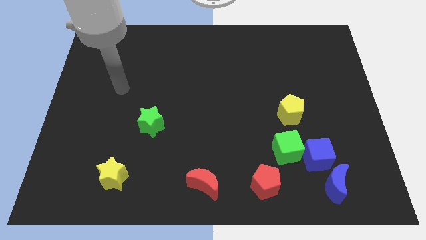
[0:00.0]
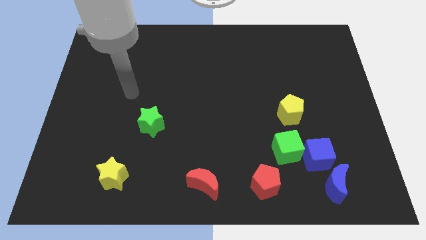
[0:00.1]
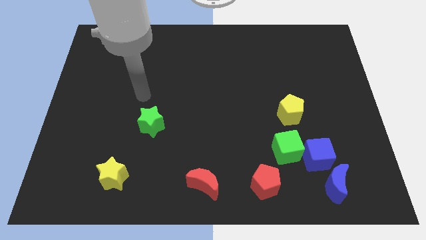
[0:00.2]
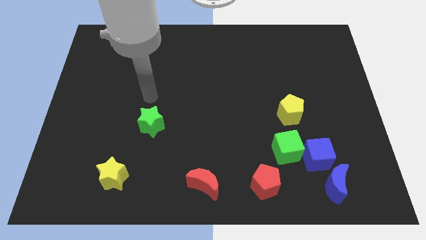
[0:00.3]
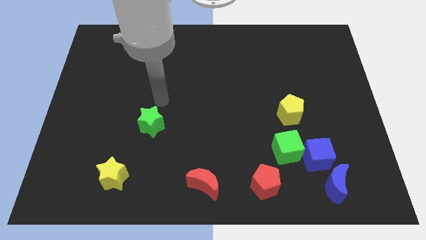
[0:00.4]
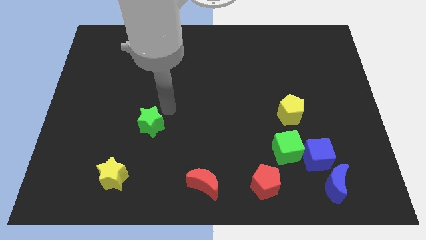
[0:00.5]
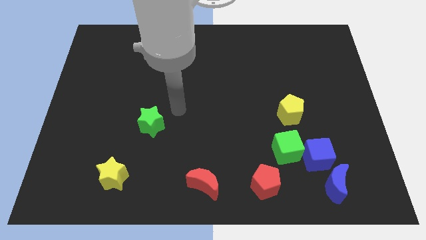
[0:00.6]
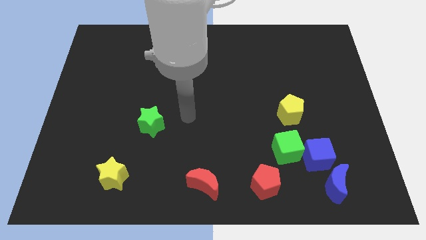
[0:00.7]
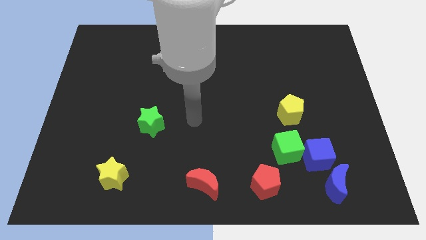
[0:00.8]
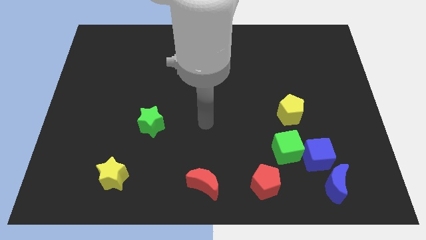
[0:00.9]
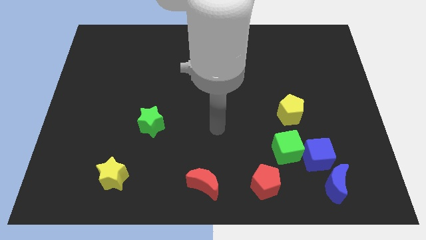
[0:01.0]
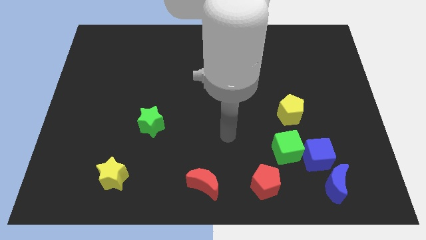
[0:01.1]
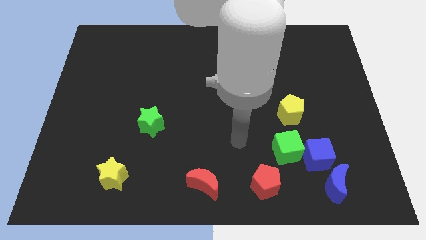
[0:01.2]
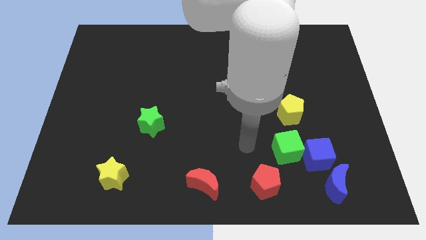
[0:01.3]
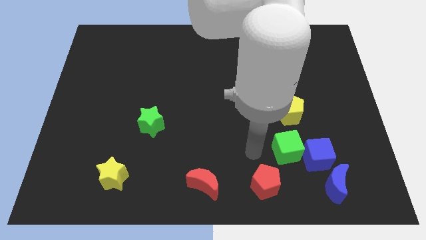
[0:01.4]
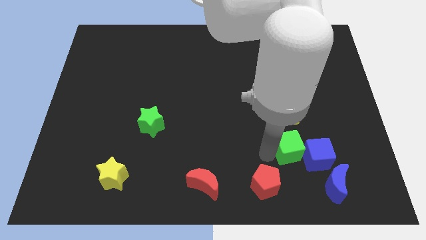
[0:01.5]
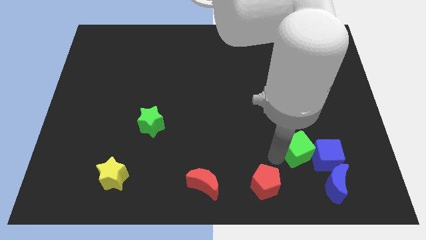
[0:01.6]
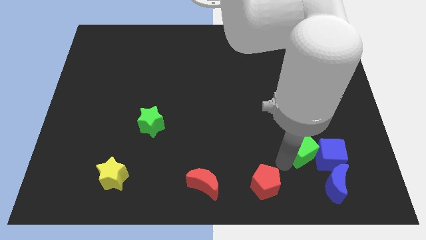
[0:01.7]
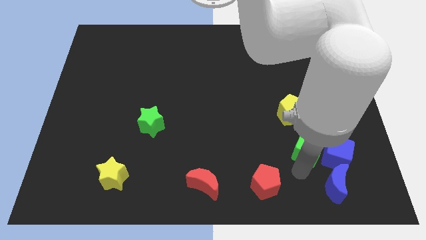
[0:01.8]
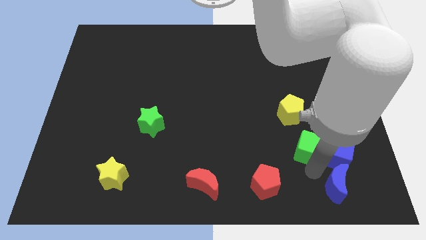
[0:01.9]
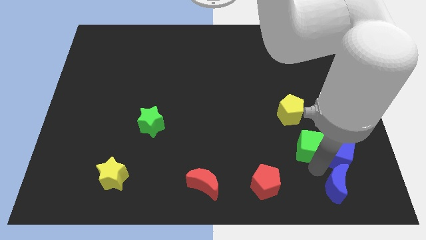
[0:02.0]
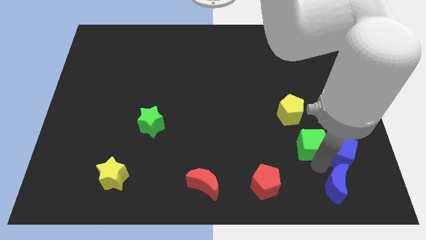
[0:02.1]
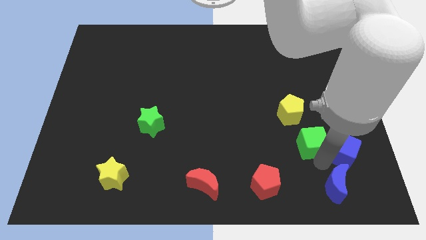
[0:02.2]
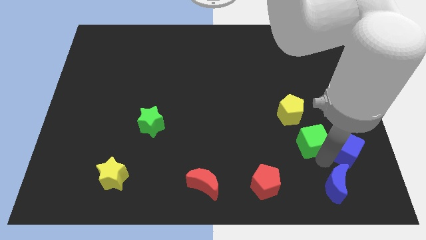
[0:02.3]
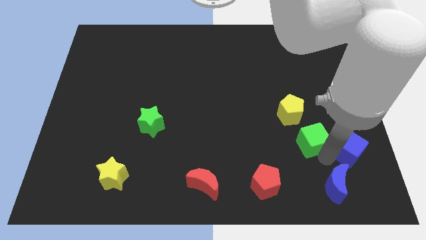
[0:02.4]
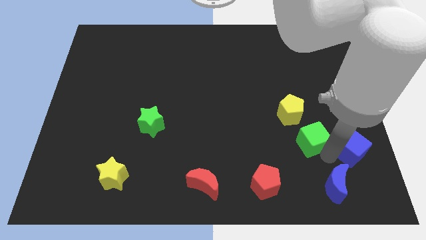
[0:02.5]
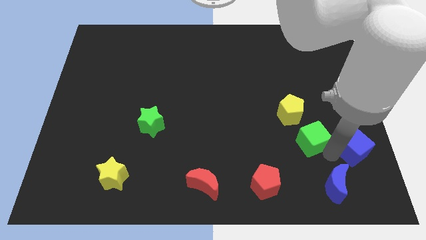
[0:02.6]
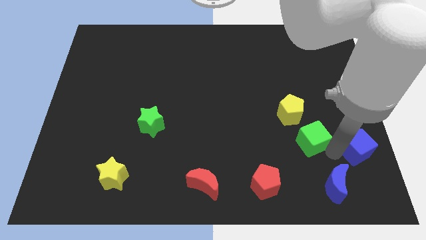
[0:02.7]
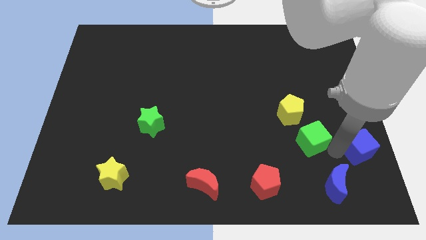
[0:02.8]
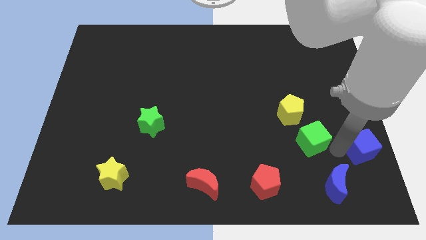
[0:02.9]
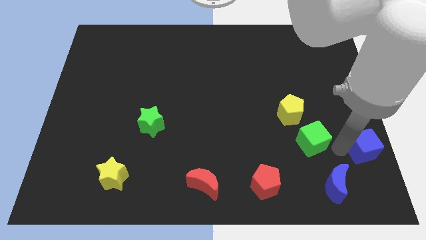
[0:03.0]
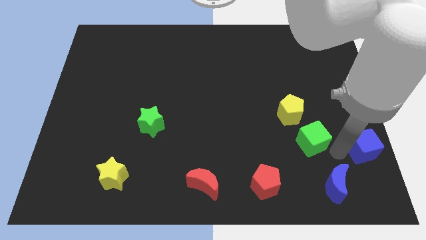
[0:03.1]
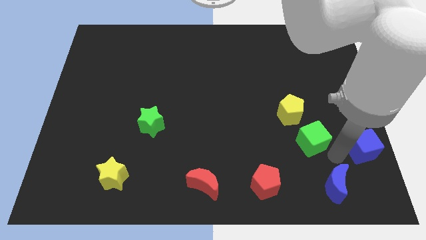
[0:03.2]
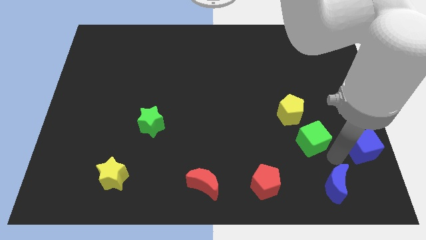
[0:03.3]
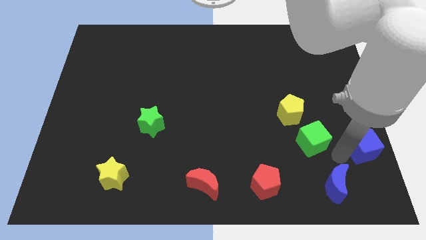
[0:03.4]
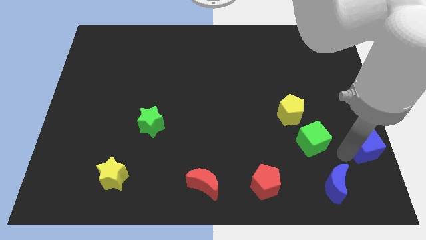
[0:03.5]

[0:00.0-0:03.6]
pull the blue cube apart from the green cube and blue moon

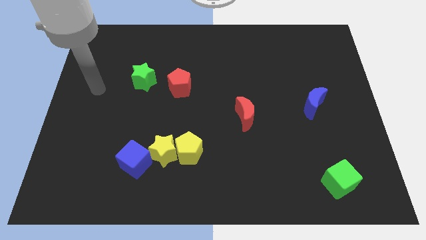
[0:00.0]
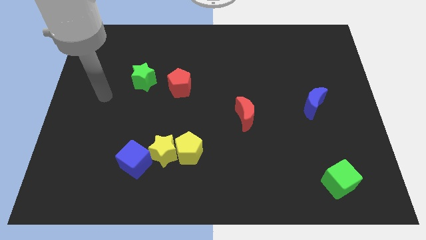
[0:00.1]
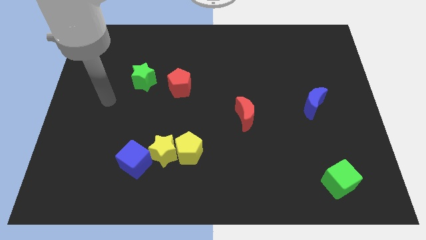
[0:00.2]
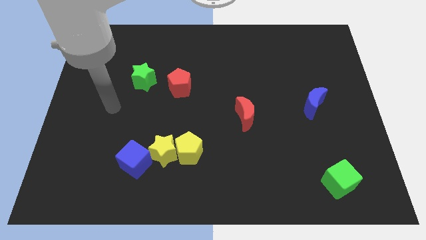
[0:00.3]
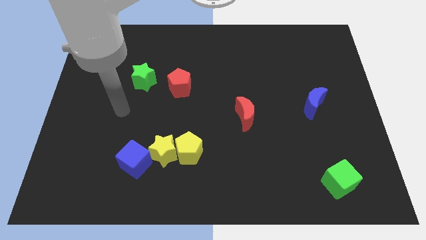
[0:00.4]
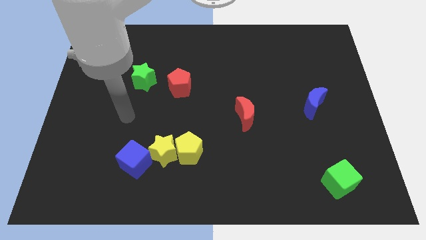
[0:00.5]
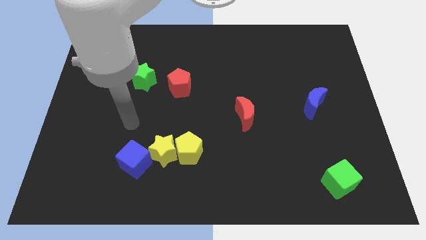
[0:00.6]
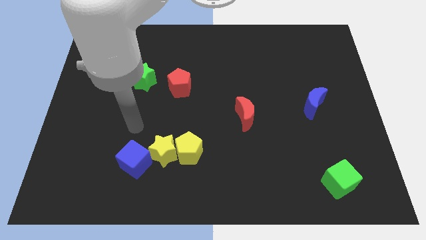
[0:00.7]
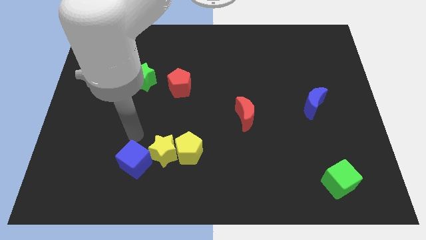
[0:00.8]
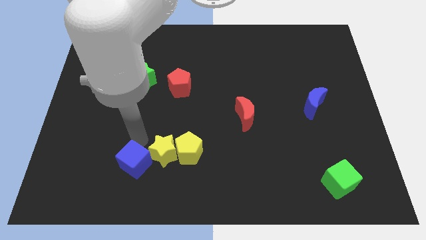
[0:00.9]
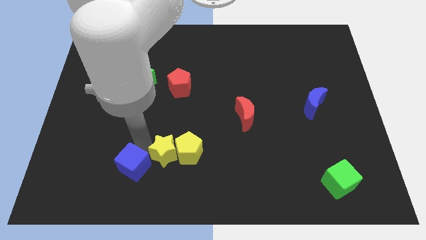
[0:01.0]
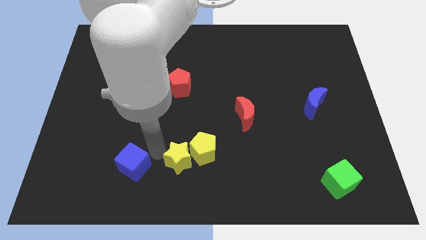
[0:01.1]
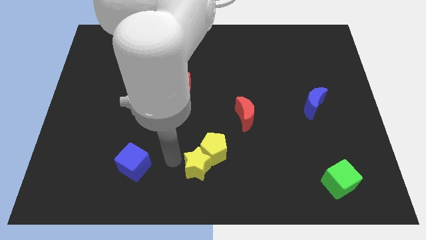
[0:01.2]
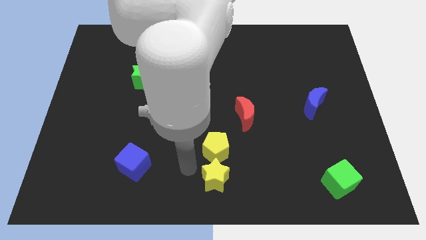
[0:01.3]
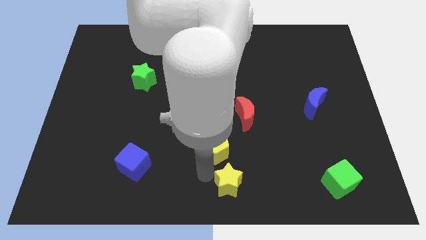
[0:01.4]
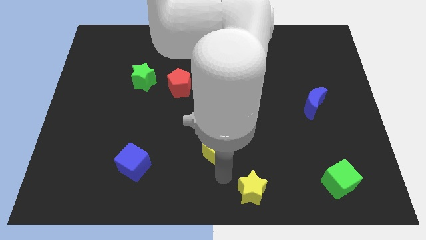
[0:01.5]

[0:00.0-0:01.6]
move the yellow pentagon away from the yellow star

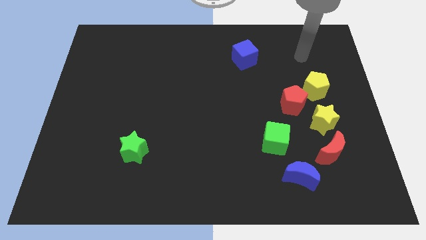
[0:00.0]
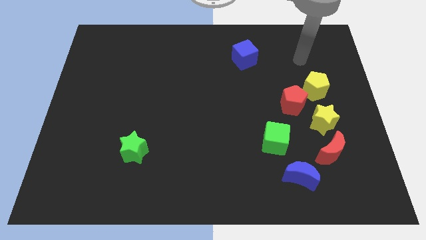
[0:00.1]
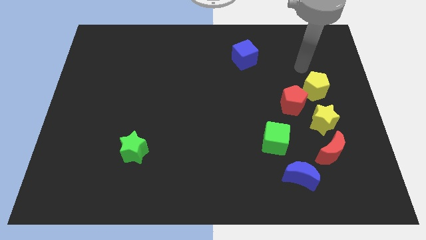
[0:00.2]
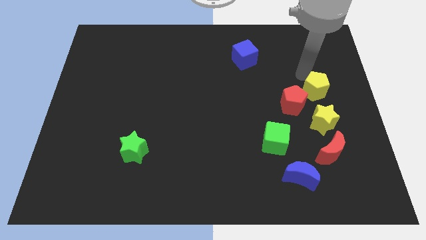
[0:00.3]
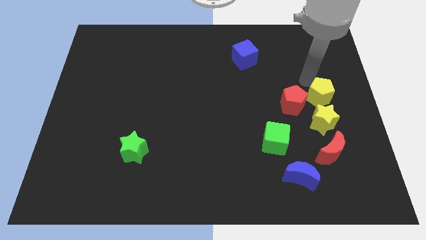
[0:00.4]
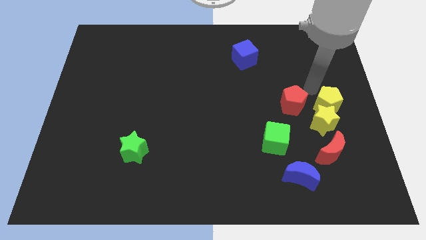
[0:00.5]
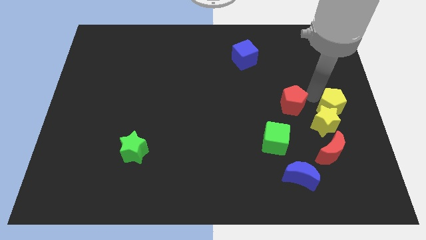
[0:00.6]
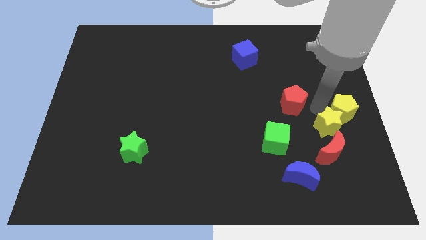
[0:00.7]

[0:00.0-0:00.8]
pull the red pentagon apart from the yellow pentagon and yellow star

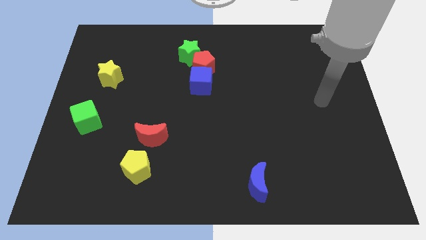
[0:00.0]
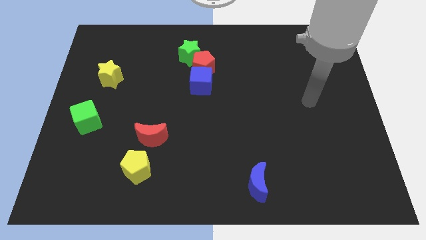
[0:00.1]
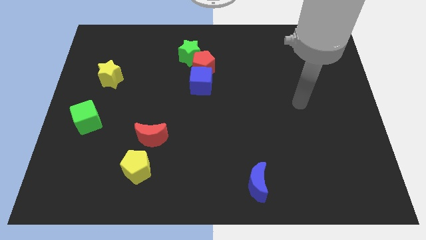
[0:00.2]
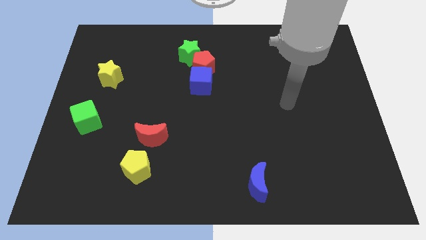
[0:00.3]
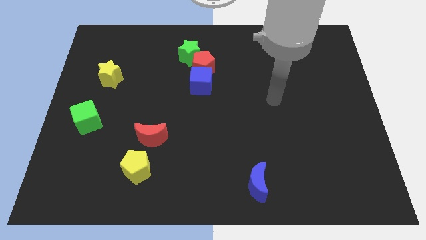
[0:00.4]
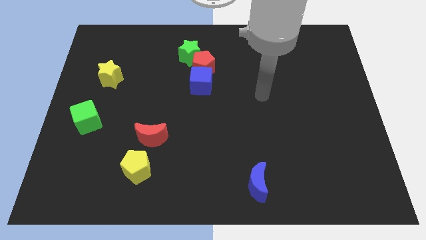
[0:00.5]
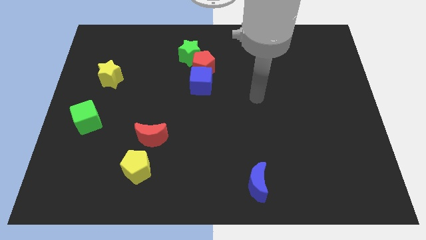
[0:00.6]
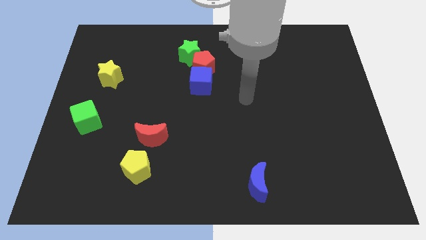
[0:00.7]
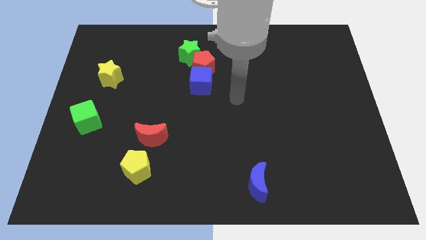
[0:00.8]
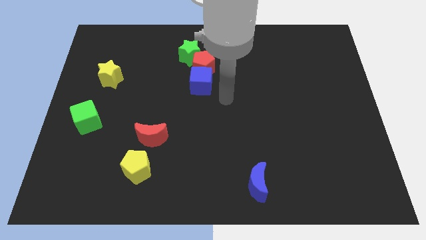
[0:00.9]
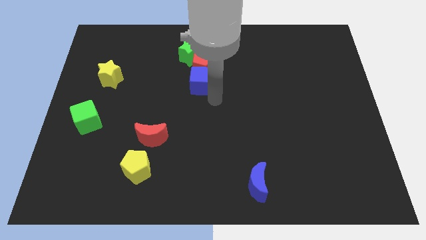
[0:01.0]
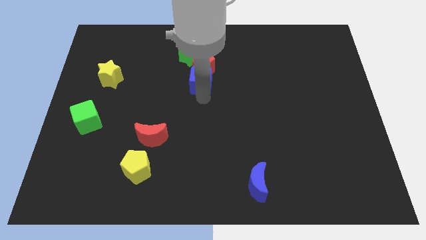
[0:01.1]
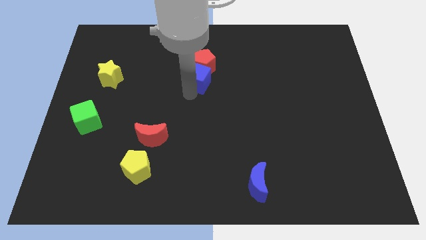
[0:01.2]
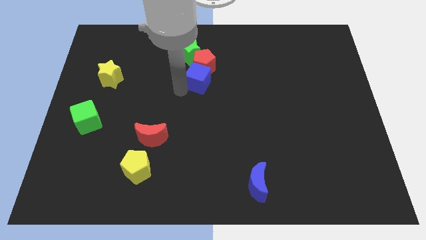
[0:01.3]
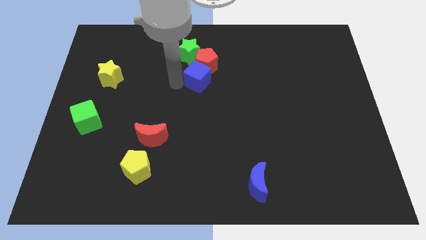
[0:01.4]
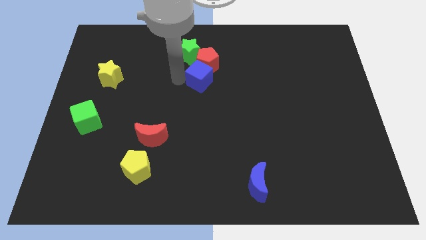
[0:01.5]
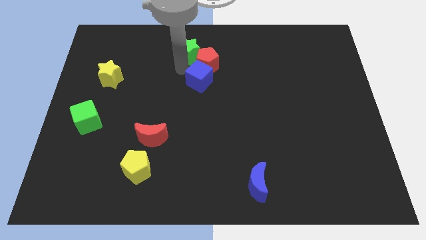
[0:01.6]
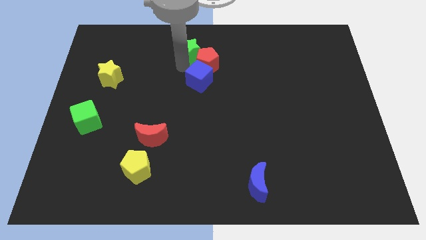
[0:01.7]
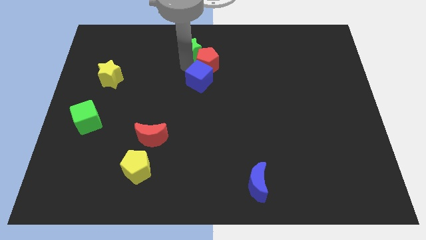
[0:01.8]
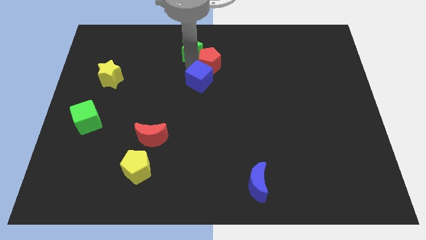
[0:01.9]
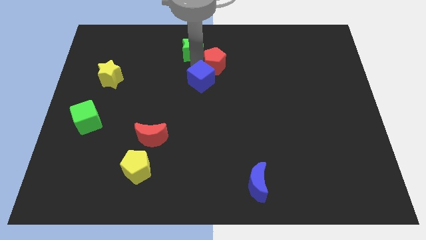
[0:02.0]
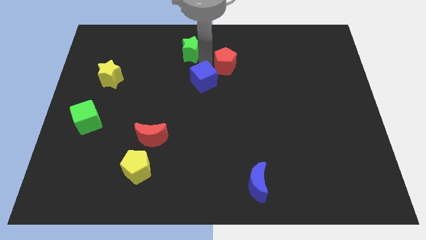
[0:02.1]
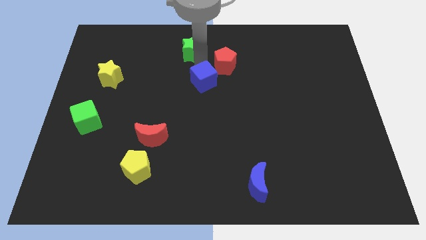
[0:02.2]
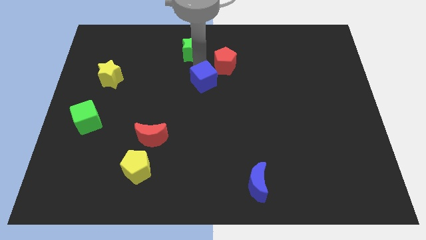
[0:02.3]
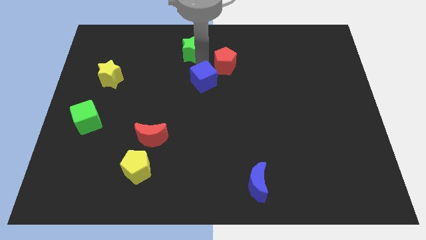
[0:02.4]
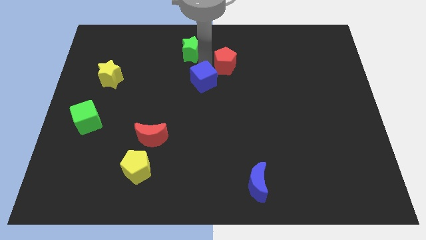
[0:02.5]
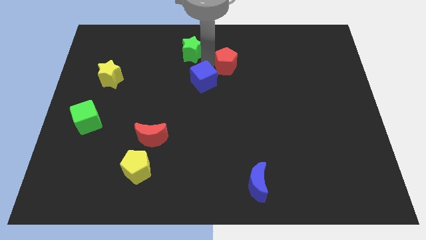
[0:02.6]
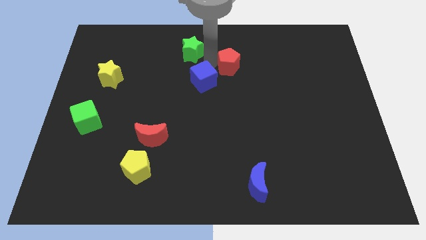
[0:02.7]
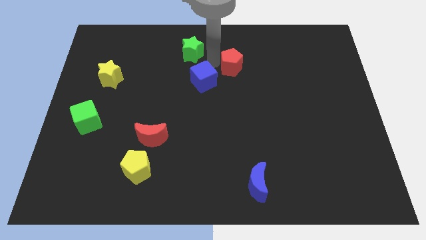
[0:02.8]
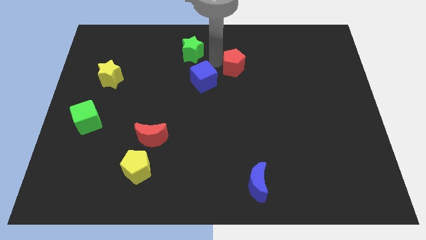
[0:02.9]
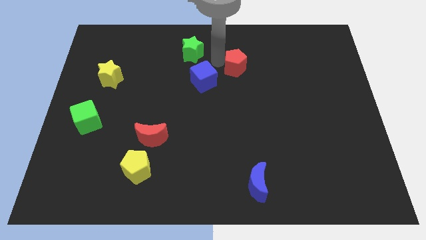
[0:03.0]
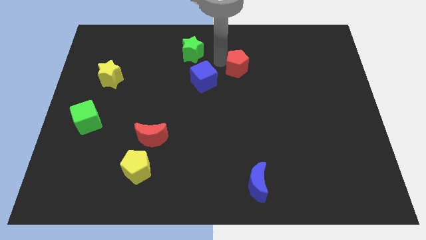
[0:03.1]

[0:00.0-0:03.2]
separate the red pentagon from the green star and blue cube

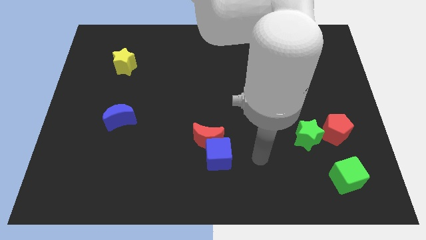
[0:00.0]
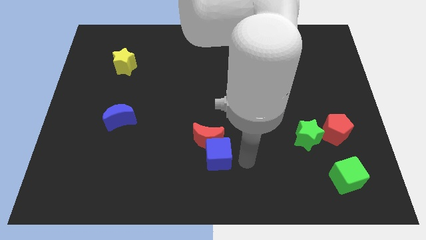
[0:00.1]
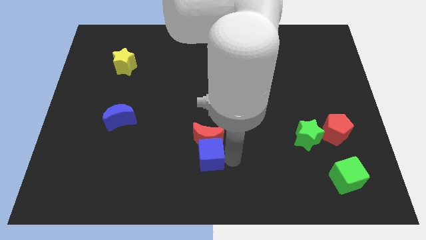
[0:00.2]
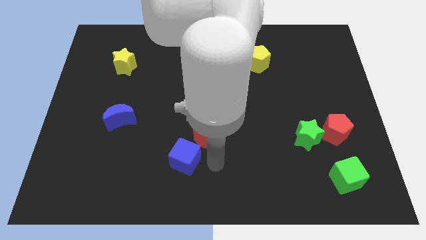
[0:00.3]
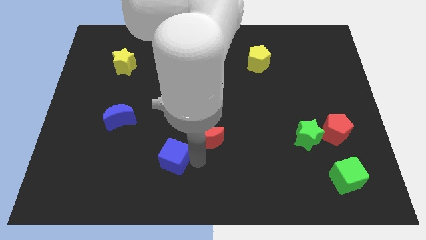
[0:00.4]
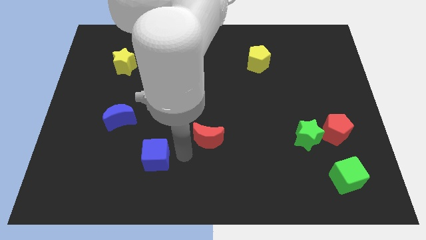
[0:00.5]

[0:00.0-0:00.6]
separate the red moon from the blue cube
